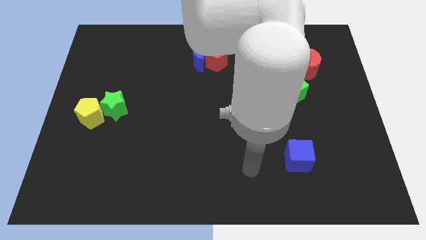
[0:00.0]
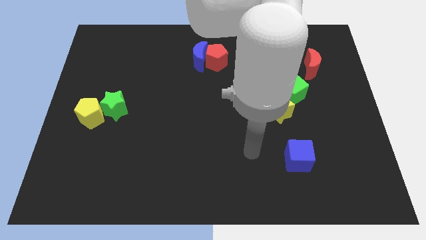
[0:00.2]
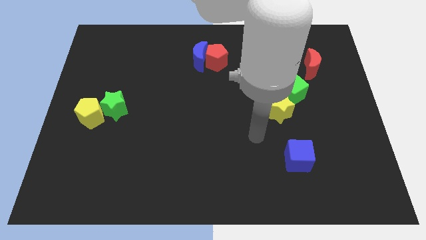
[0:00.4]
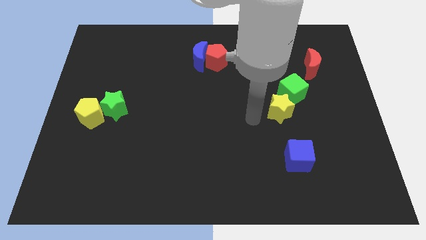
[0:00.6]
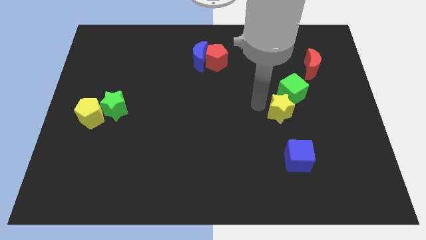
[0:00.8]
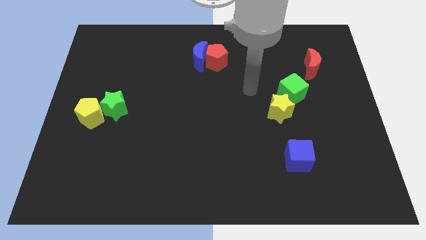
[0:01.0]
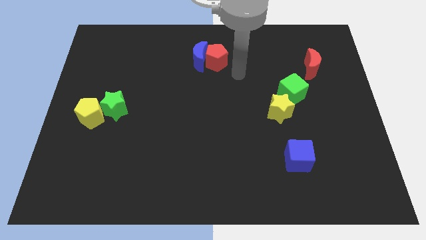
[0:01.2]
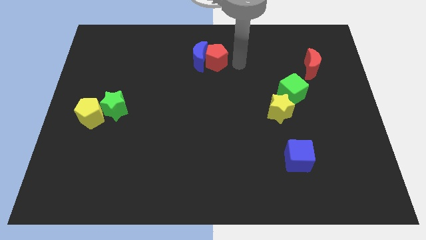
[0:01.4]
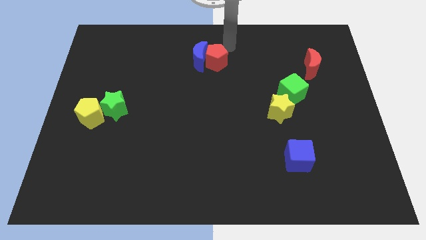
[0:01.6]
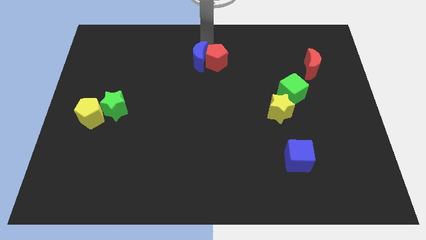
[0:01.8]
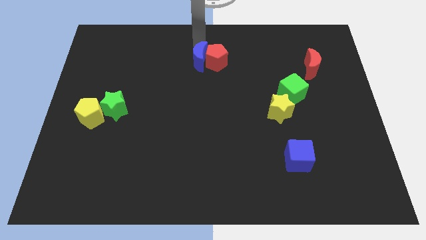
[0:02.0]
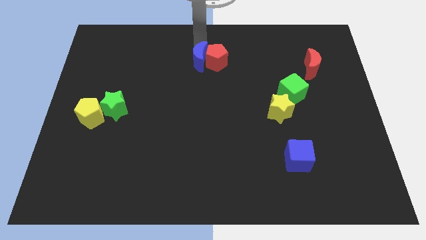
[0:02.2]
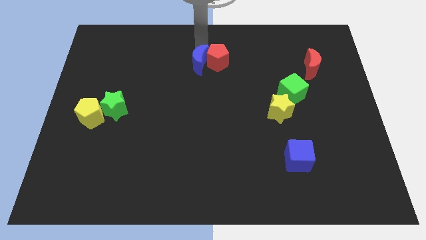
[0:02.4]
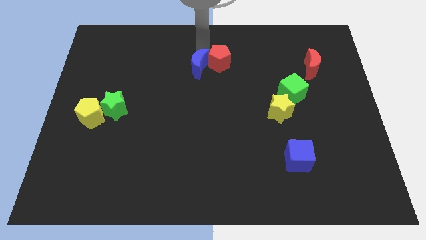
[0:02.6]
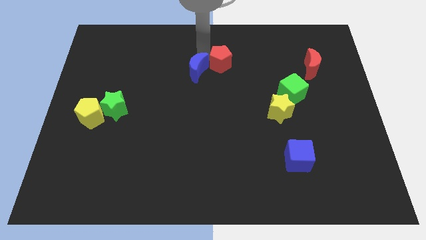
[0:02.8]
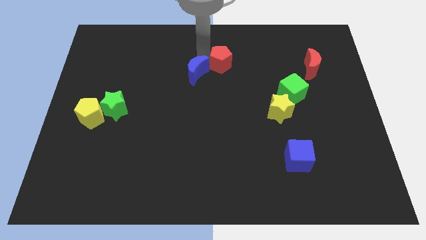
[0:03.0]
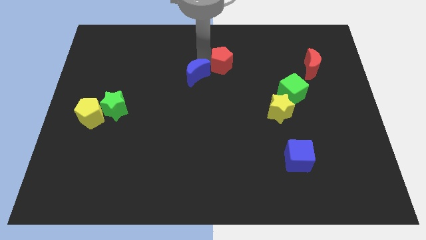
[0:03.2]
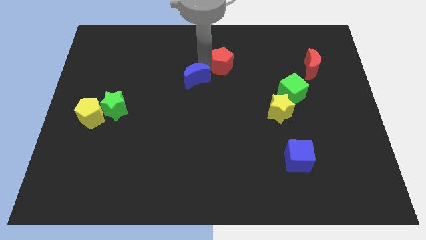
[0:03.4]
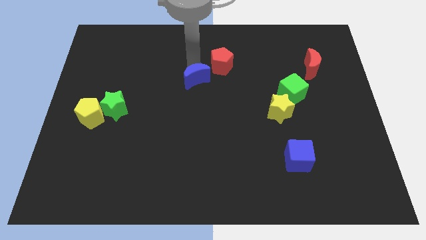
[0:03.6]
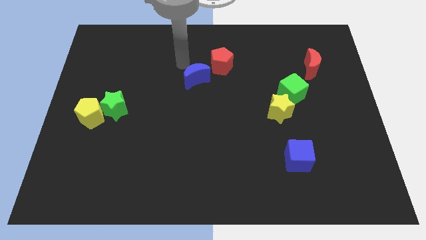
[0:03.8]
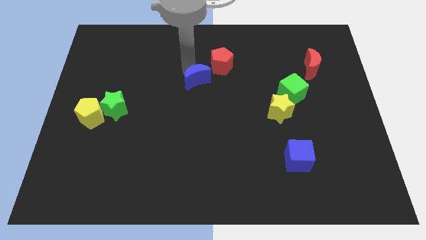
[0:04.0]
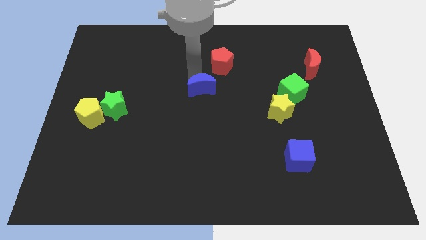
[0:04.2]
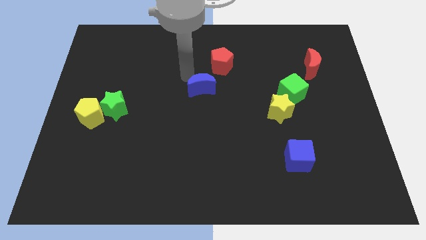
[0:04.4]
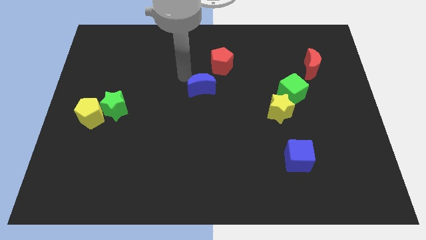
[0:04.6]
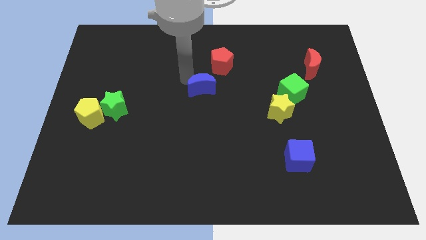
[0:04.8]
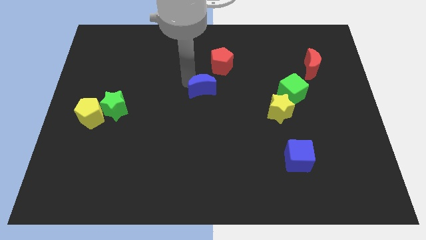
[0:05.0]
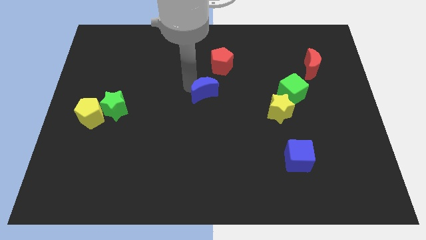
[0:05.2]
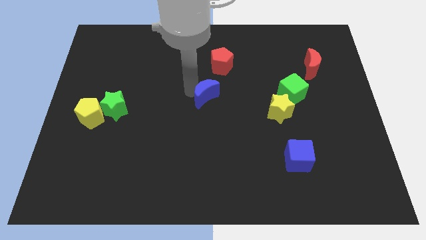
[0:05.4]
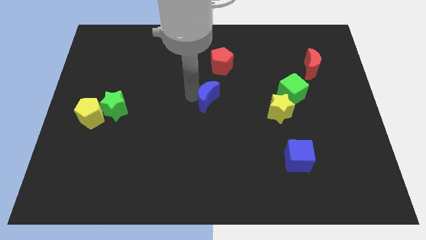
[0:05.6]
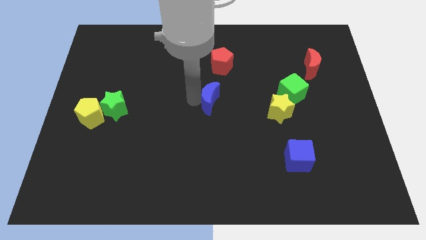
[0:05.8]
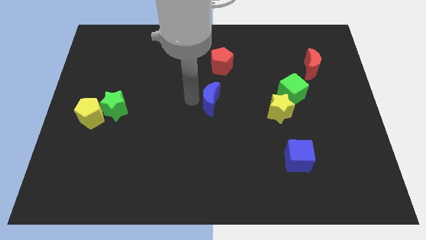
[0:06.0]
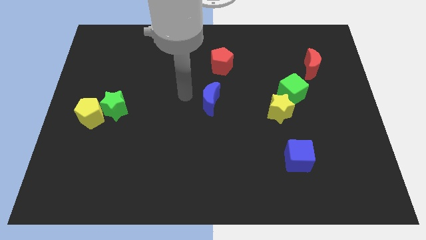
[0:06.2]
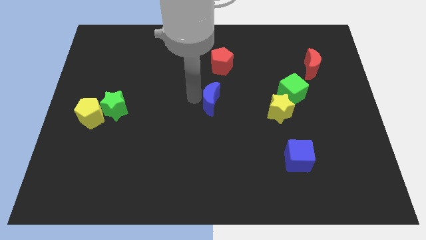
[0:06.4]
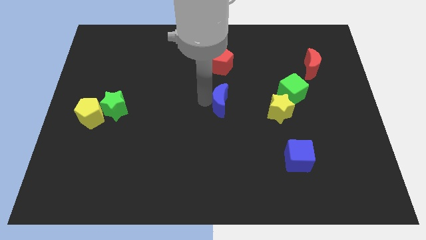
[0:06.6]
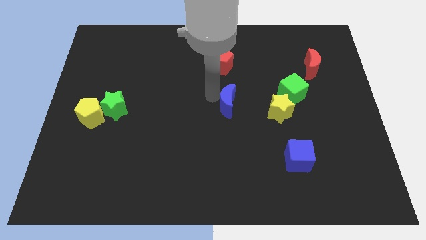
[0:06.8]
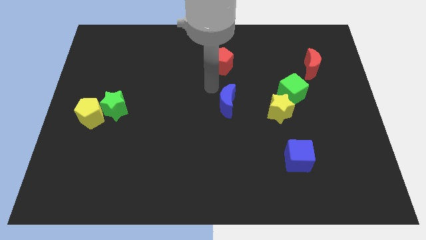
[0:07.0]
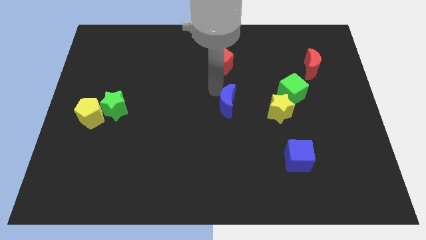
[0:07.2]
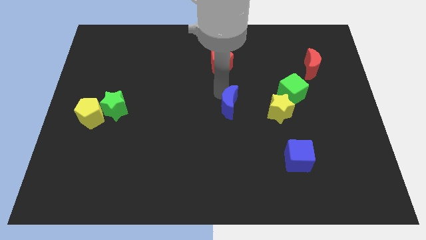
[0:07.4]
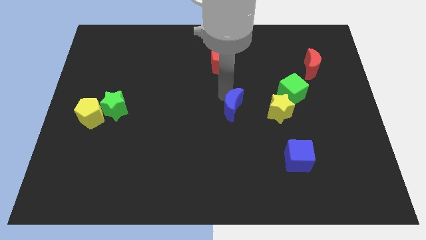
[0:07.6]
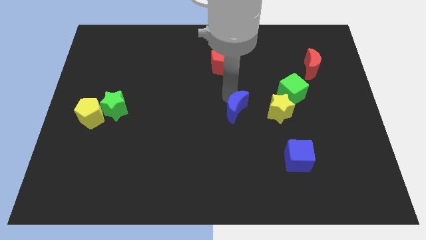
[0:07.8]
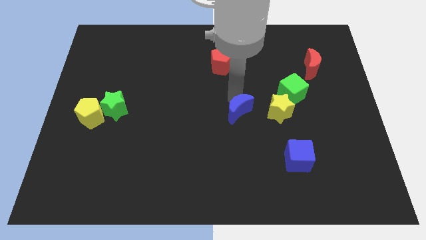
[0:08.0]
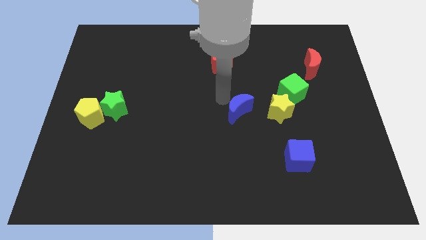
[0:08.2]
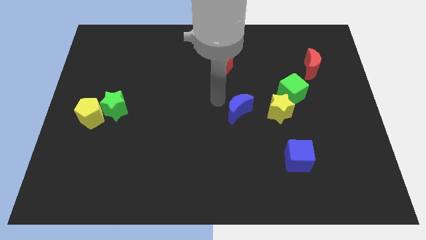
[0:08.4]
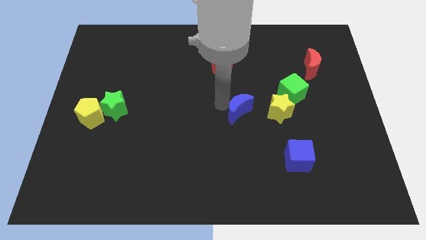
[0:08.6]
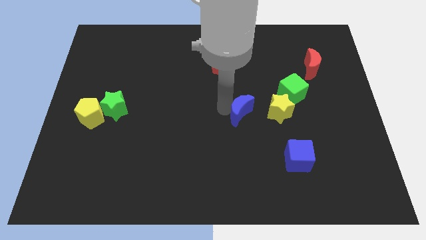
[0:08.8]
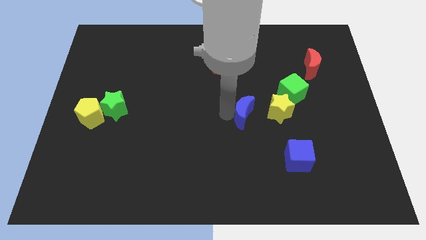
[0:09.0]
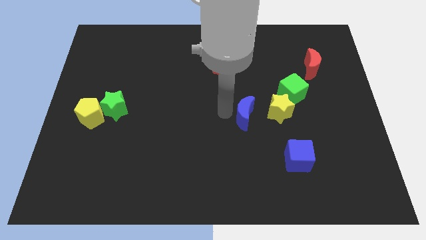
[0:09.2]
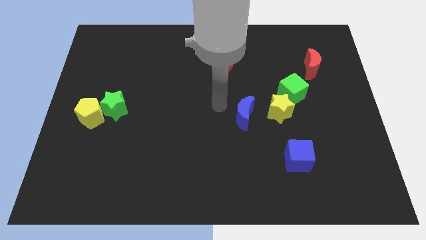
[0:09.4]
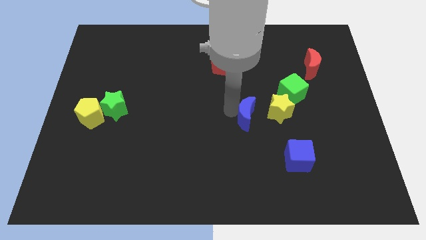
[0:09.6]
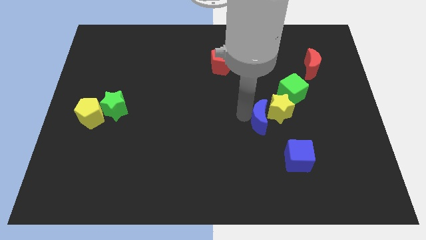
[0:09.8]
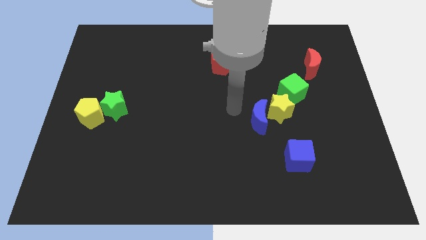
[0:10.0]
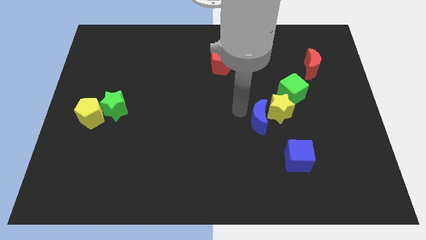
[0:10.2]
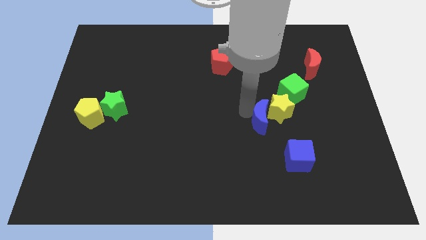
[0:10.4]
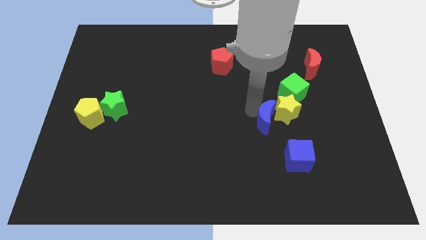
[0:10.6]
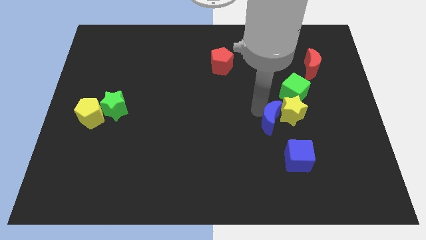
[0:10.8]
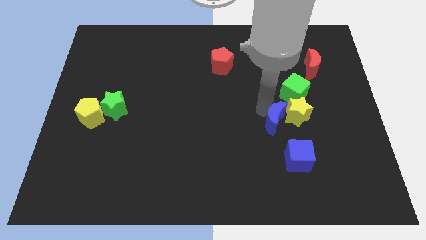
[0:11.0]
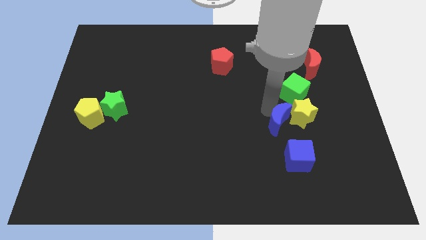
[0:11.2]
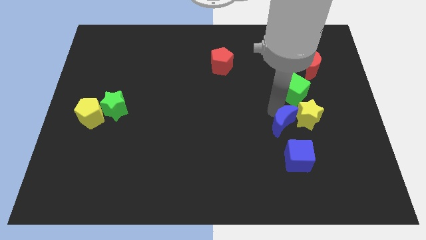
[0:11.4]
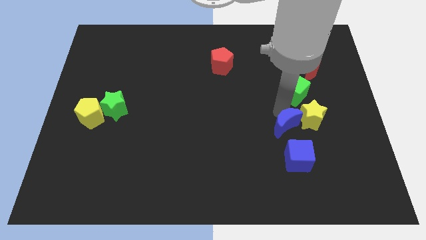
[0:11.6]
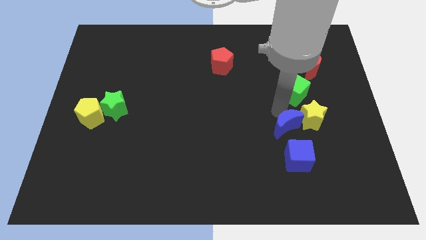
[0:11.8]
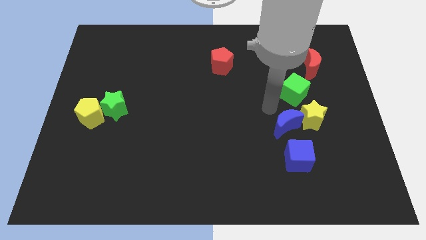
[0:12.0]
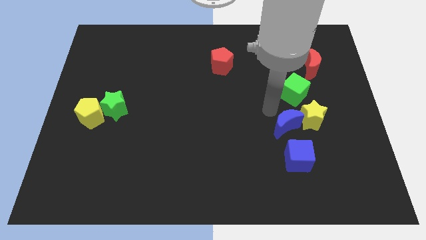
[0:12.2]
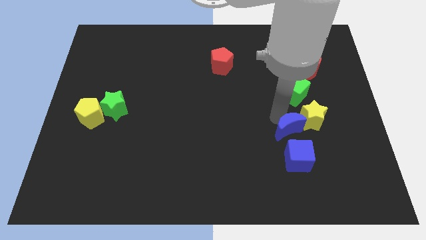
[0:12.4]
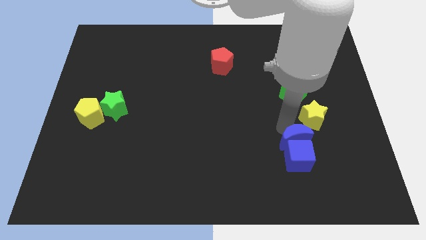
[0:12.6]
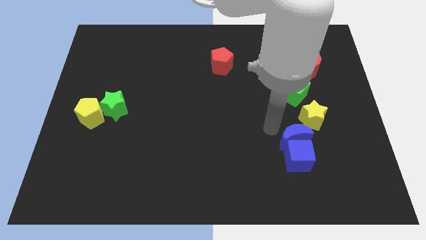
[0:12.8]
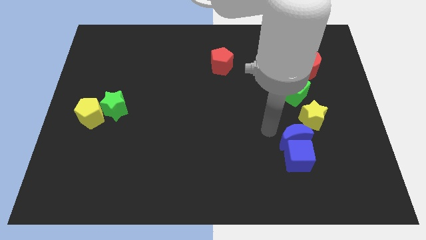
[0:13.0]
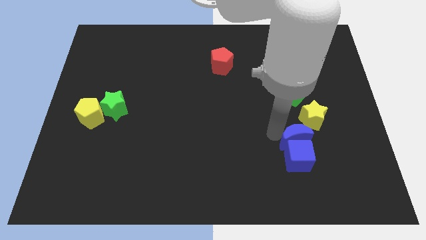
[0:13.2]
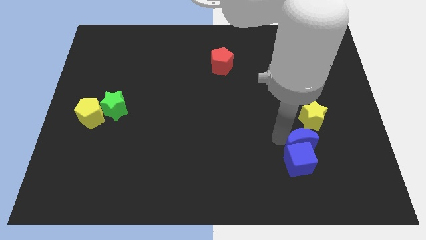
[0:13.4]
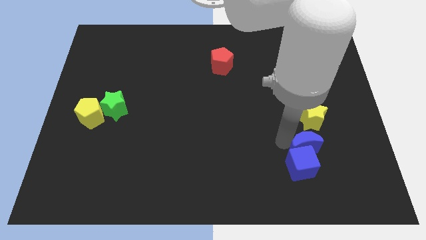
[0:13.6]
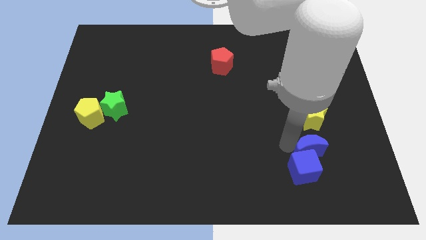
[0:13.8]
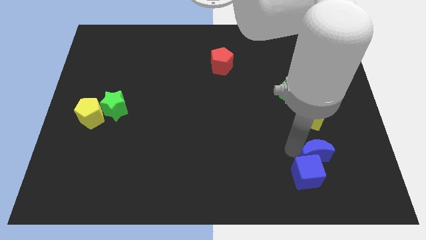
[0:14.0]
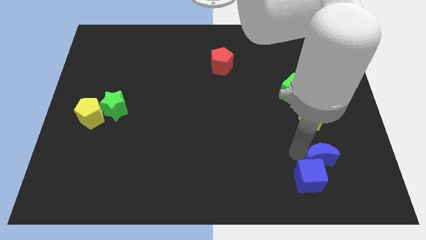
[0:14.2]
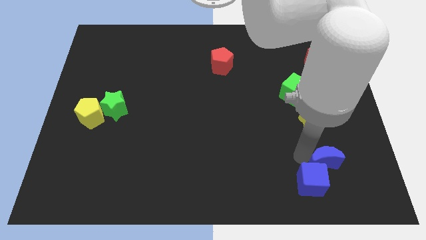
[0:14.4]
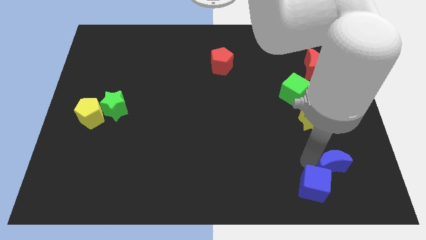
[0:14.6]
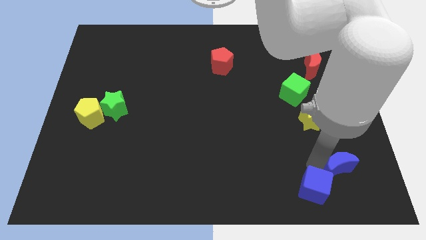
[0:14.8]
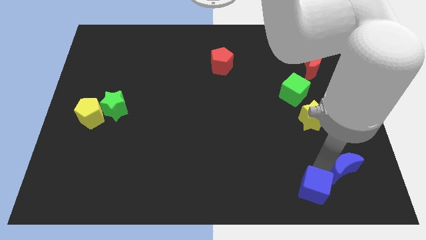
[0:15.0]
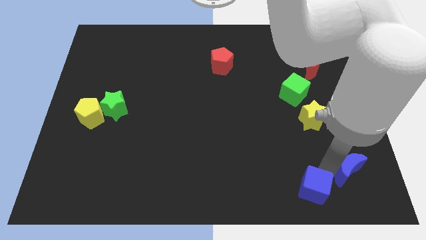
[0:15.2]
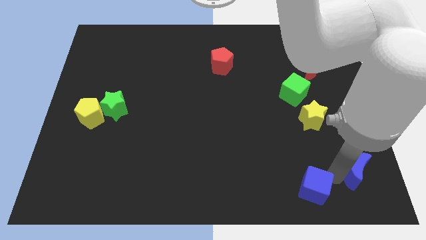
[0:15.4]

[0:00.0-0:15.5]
put the blue moon to the bottom right of the board
